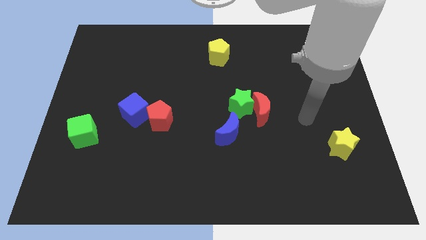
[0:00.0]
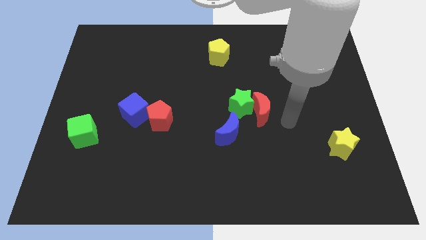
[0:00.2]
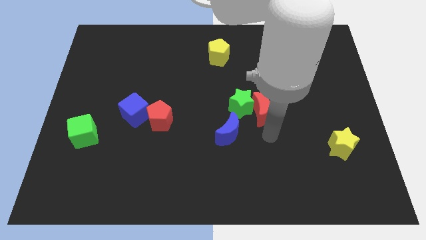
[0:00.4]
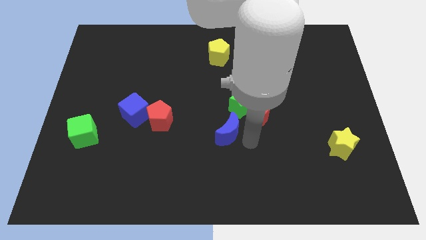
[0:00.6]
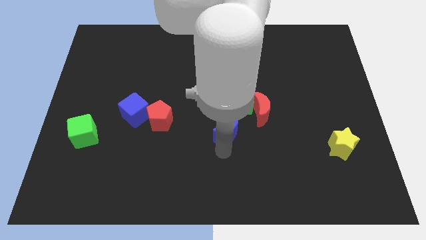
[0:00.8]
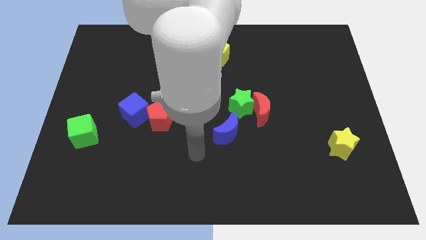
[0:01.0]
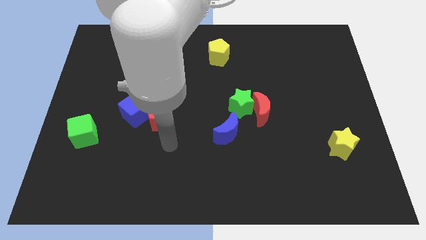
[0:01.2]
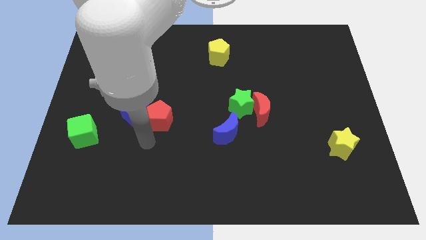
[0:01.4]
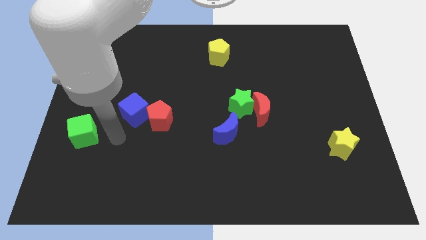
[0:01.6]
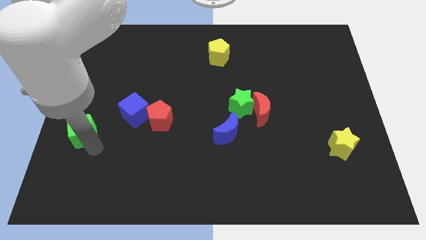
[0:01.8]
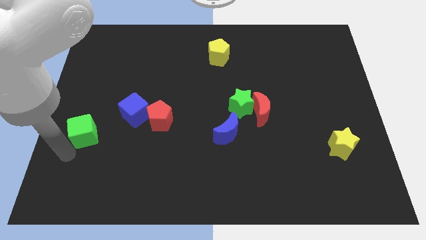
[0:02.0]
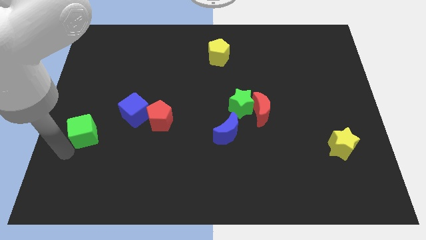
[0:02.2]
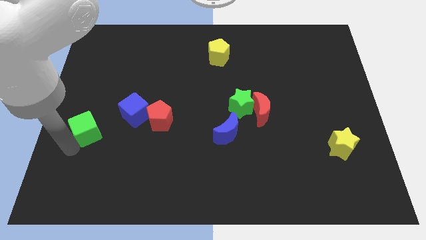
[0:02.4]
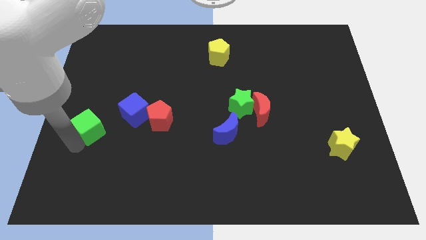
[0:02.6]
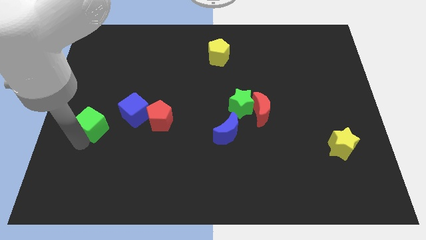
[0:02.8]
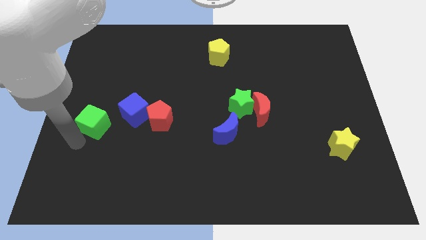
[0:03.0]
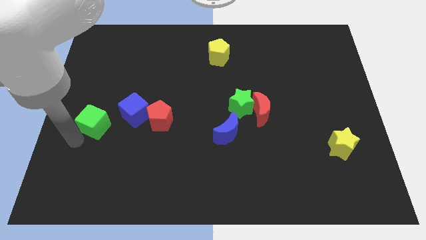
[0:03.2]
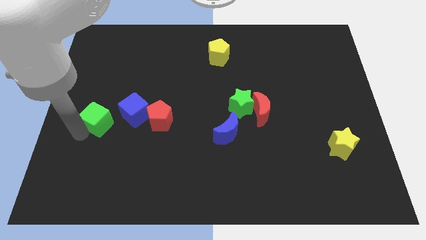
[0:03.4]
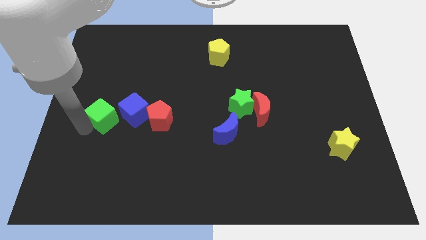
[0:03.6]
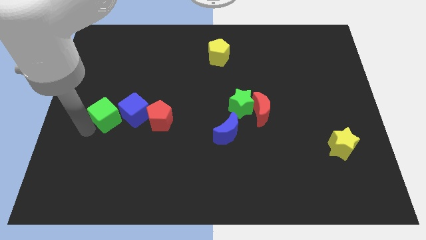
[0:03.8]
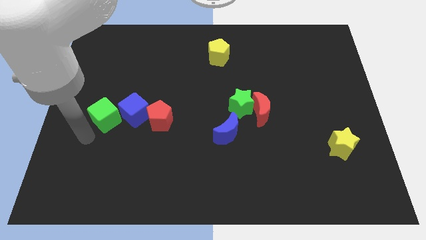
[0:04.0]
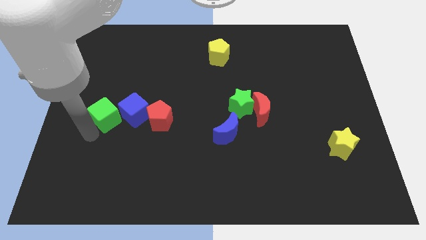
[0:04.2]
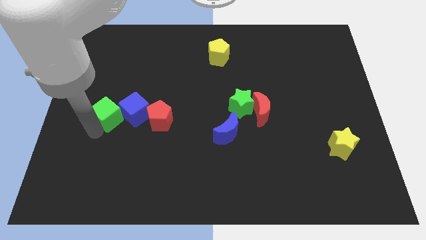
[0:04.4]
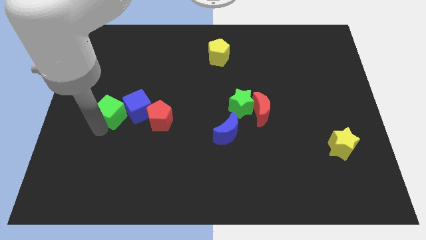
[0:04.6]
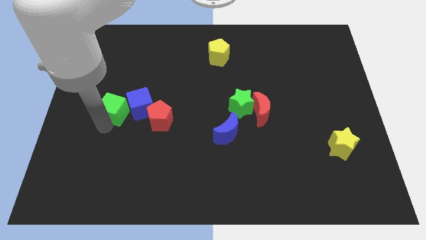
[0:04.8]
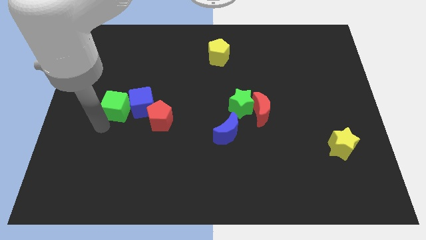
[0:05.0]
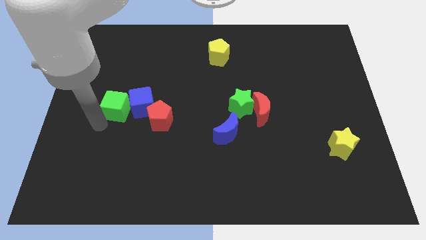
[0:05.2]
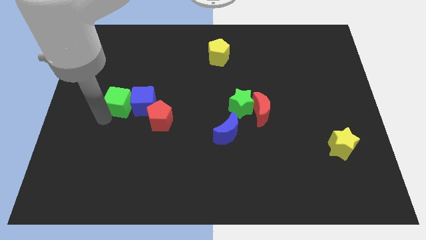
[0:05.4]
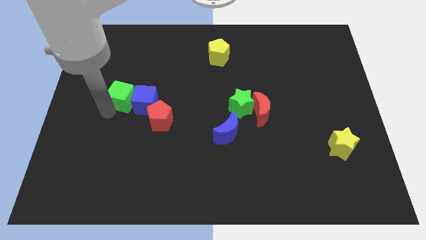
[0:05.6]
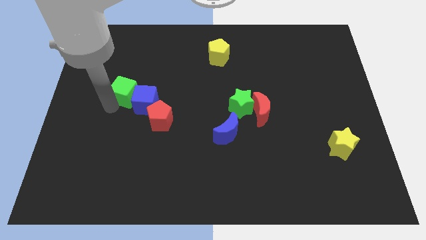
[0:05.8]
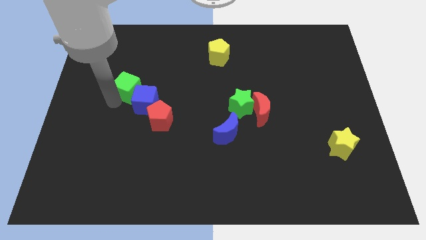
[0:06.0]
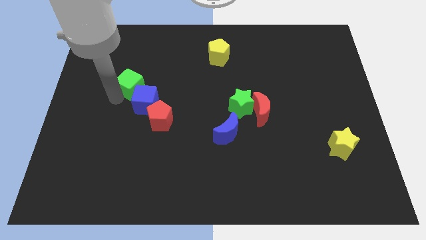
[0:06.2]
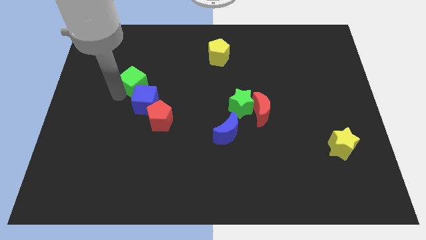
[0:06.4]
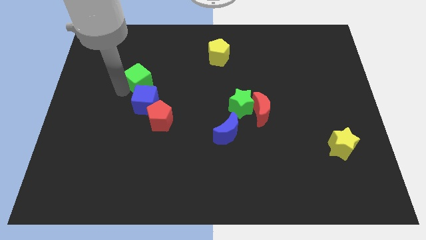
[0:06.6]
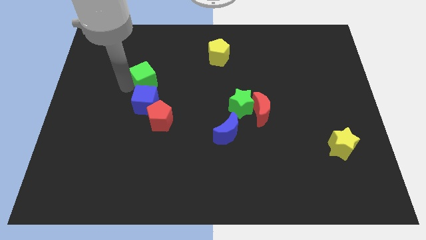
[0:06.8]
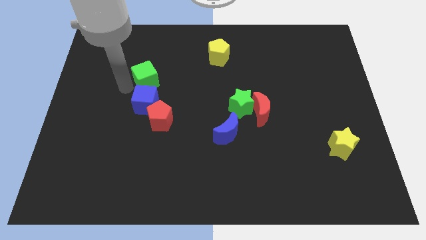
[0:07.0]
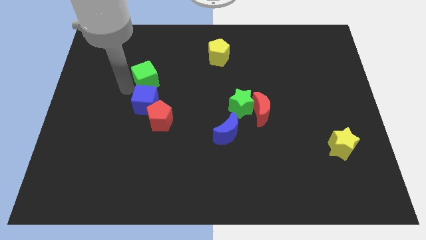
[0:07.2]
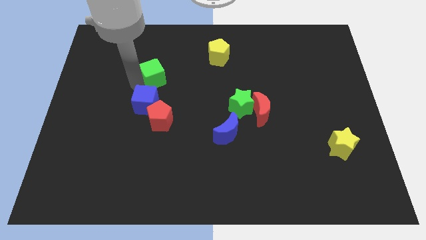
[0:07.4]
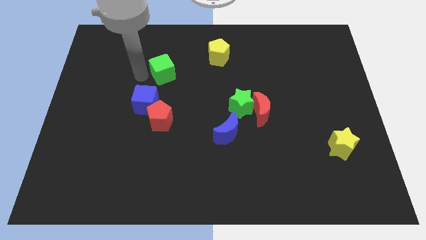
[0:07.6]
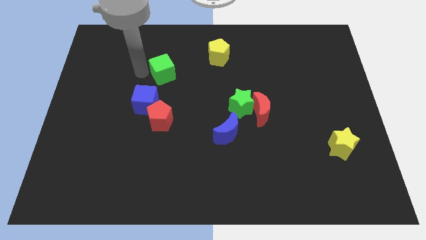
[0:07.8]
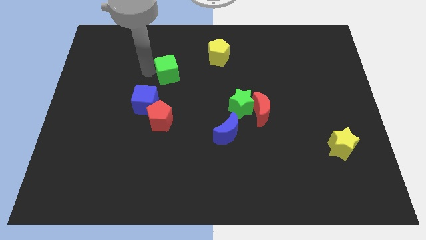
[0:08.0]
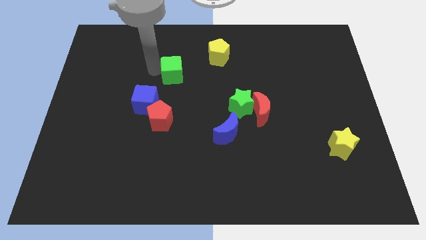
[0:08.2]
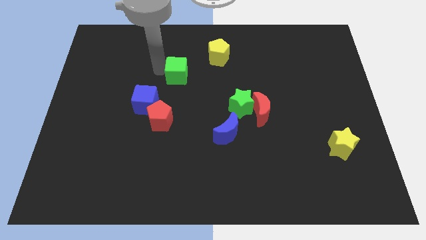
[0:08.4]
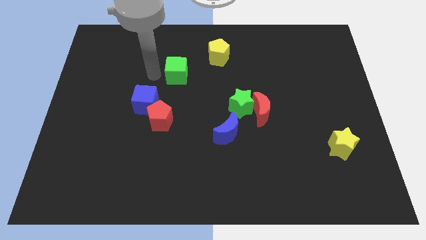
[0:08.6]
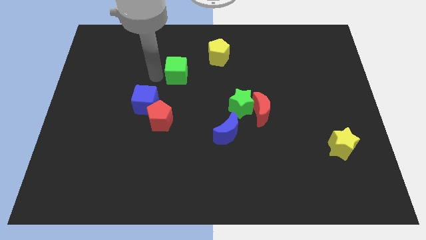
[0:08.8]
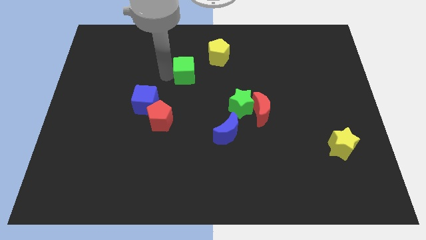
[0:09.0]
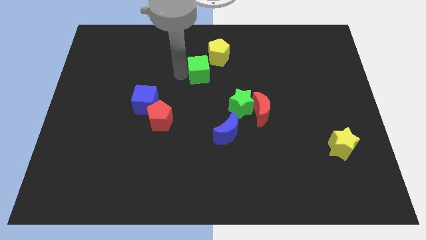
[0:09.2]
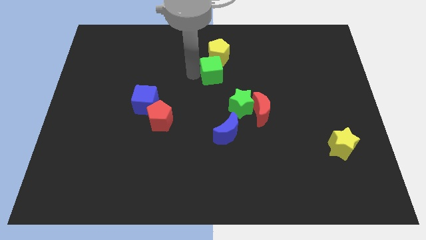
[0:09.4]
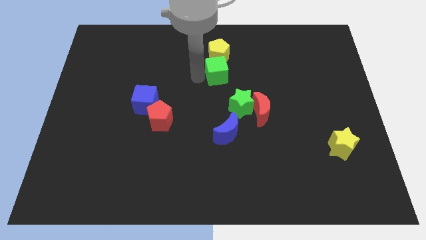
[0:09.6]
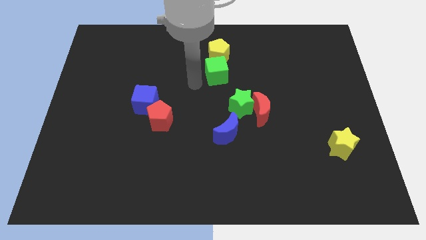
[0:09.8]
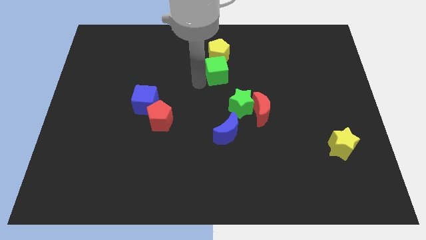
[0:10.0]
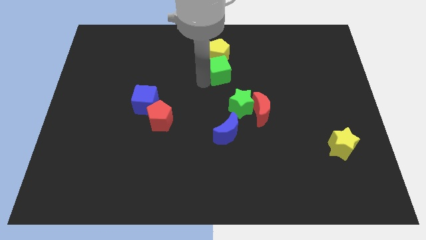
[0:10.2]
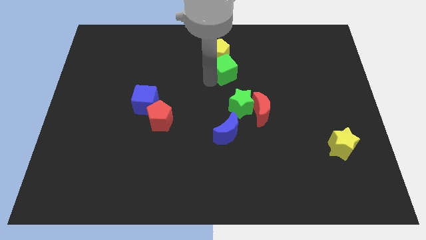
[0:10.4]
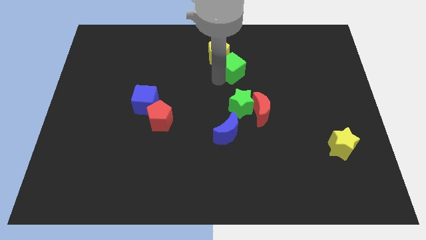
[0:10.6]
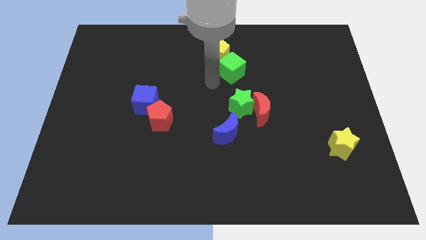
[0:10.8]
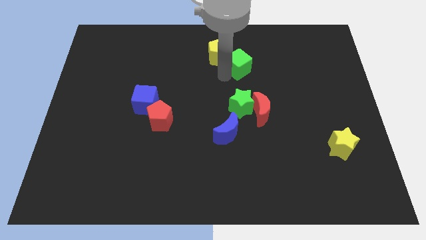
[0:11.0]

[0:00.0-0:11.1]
push the green cube right of the yellow pentagon
